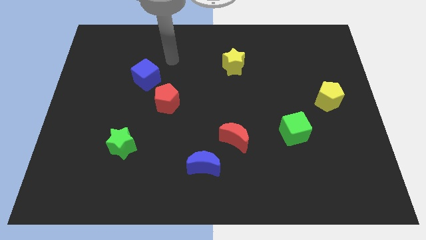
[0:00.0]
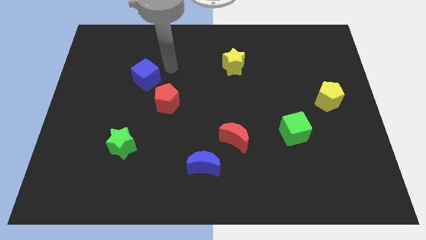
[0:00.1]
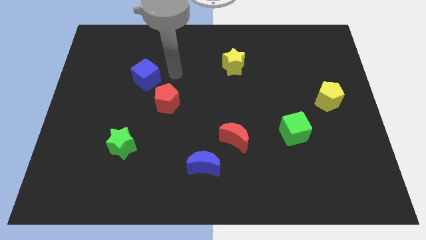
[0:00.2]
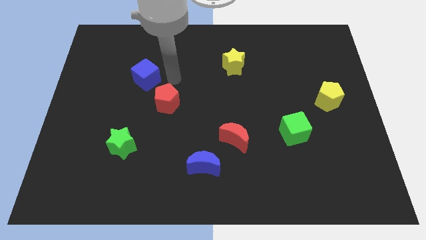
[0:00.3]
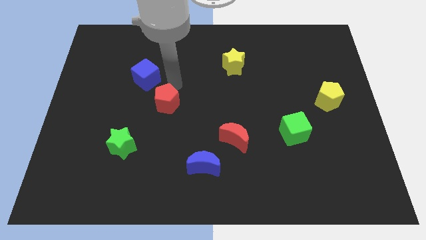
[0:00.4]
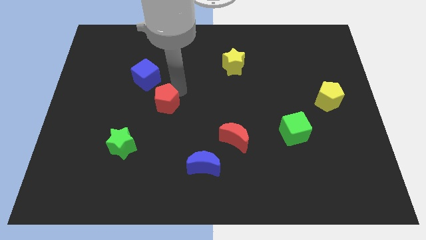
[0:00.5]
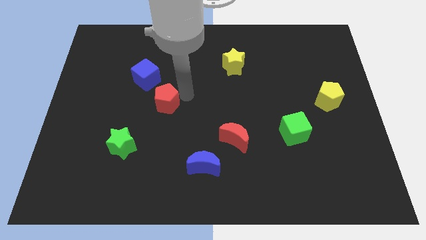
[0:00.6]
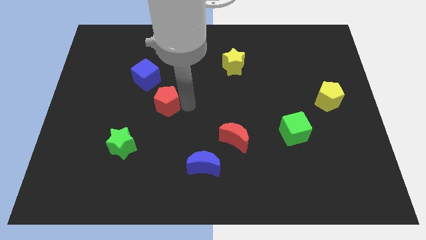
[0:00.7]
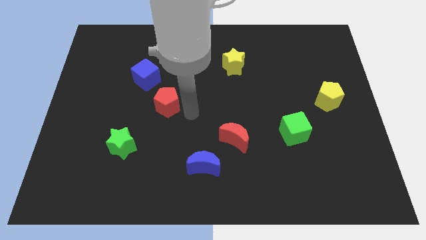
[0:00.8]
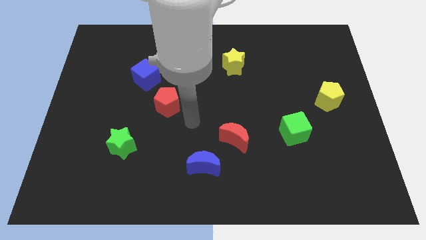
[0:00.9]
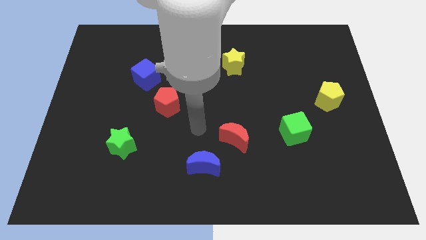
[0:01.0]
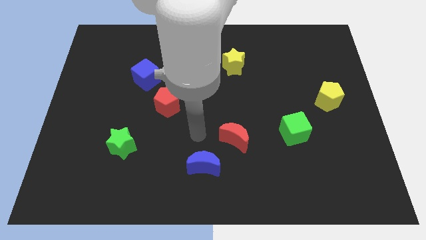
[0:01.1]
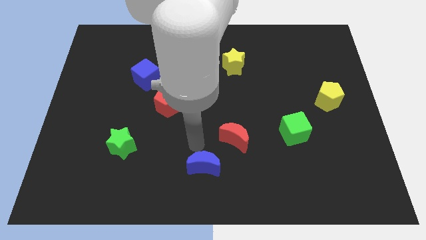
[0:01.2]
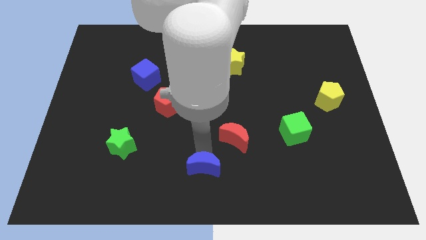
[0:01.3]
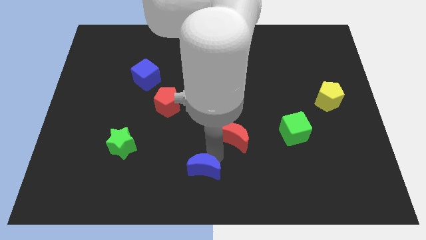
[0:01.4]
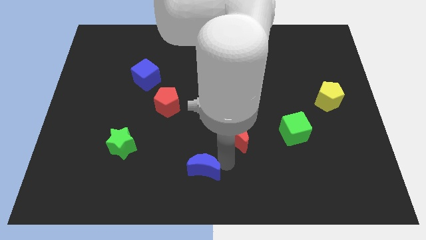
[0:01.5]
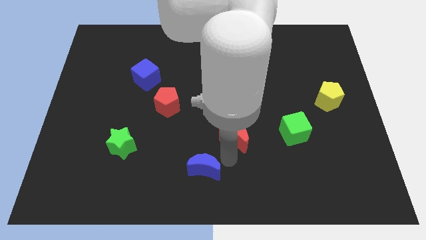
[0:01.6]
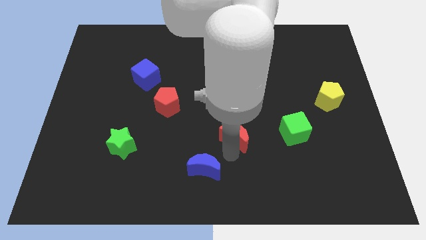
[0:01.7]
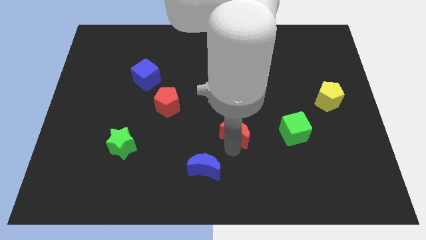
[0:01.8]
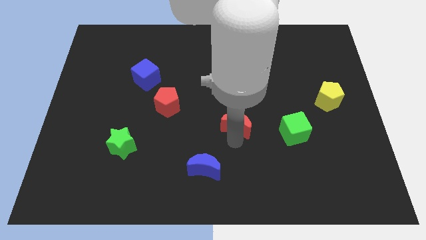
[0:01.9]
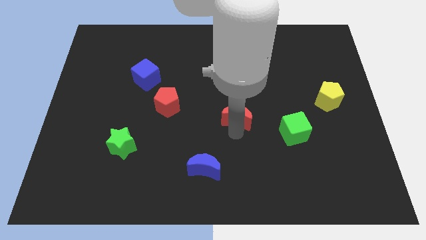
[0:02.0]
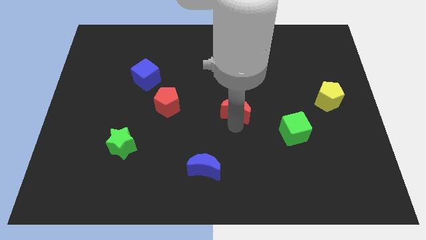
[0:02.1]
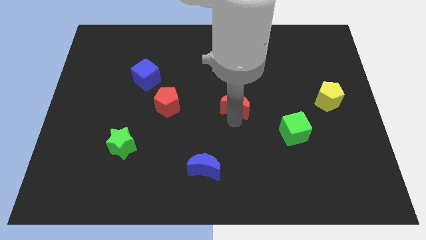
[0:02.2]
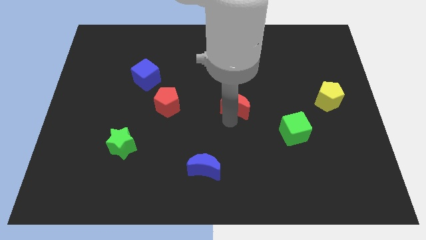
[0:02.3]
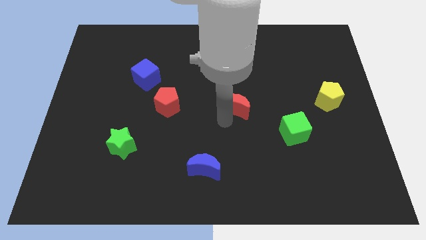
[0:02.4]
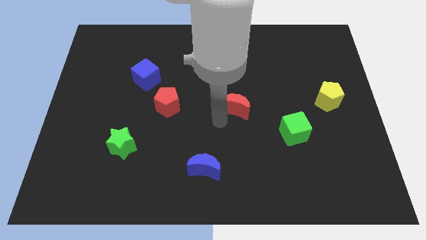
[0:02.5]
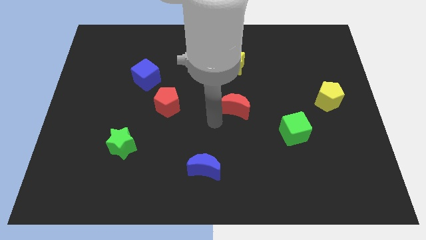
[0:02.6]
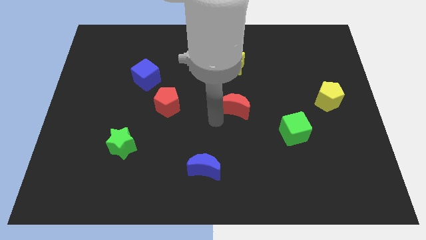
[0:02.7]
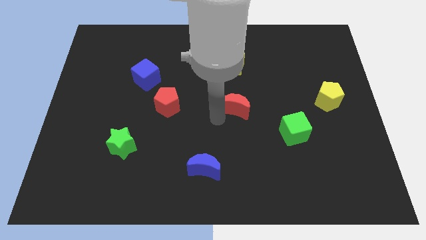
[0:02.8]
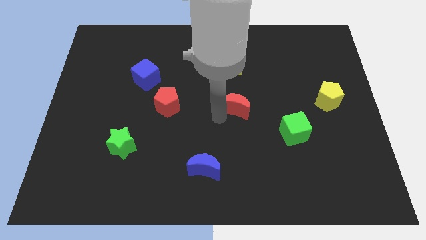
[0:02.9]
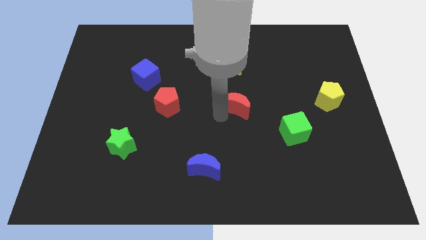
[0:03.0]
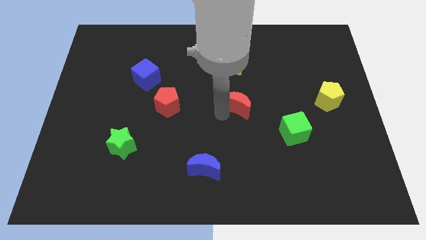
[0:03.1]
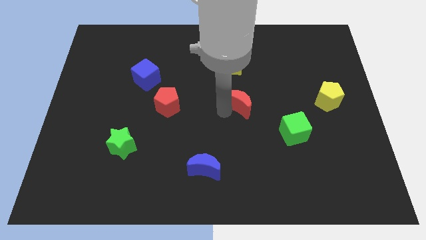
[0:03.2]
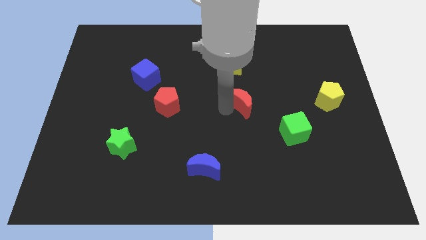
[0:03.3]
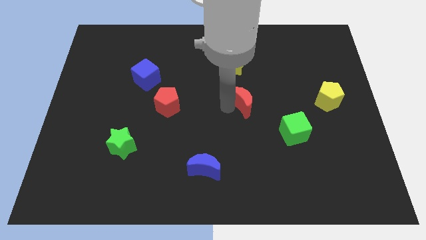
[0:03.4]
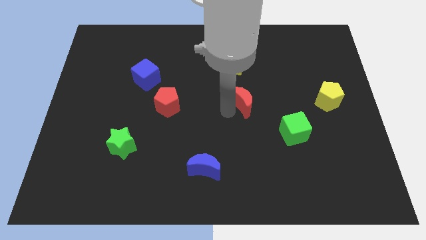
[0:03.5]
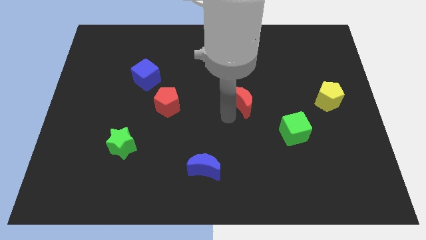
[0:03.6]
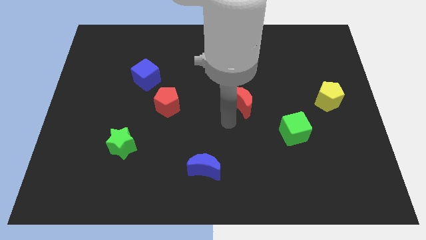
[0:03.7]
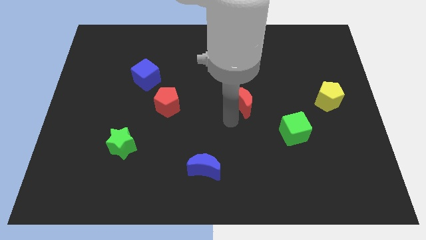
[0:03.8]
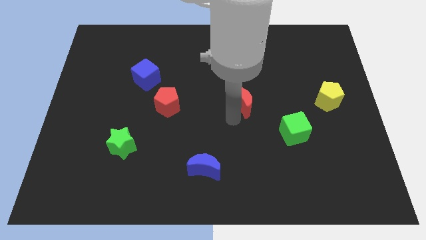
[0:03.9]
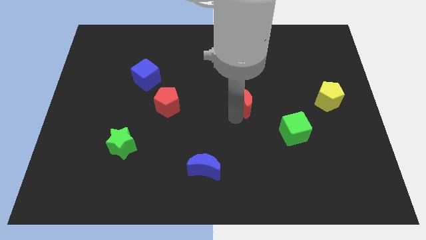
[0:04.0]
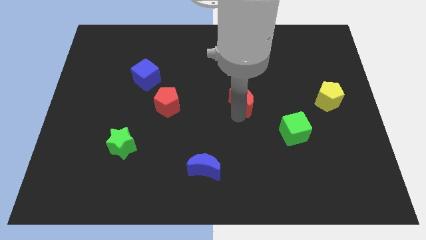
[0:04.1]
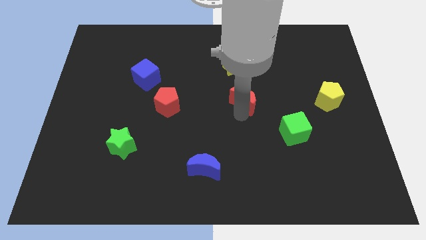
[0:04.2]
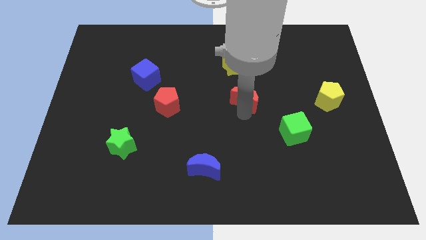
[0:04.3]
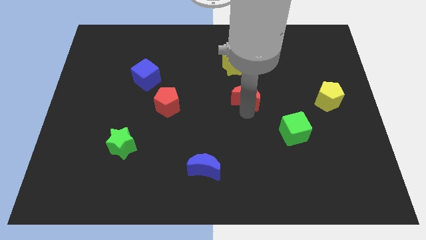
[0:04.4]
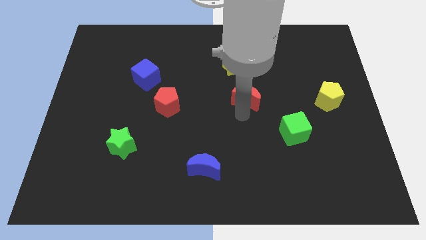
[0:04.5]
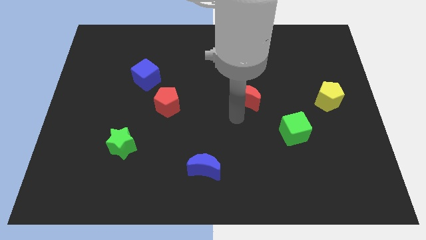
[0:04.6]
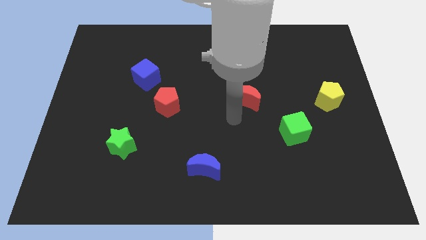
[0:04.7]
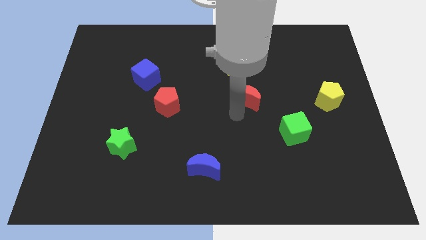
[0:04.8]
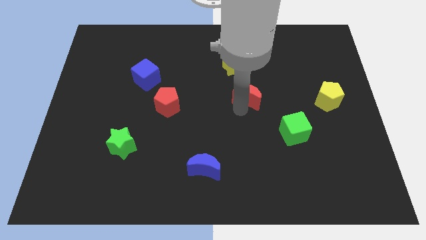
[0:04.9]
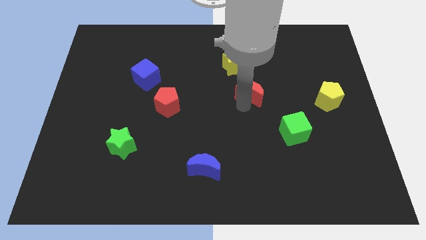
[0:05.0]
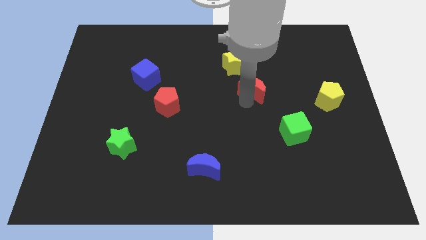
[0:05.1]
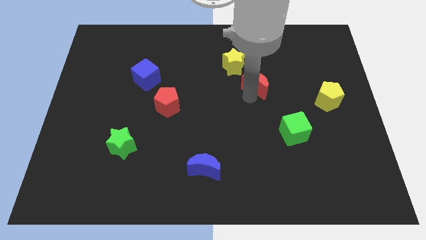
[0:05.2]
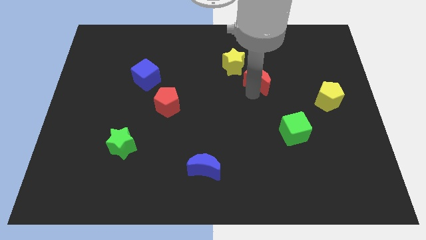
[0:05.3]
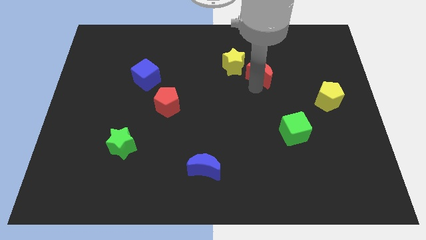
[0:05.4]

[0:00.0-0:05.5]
put the red moon right of the yellow star

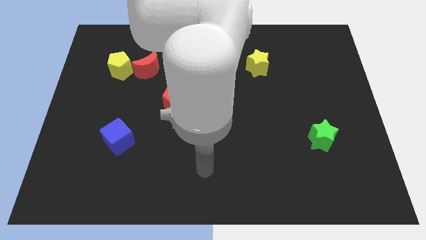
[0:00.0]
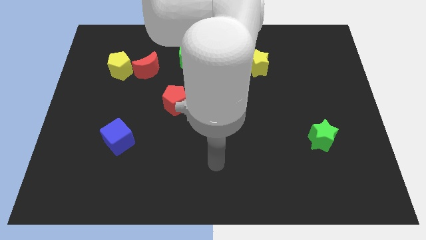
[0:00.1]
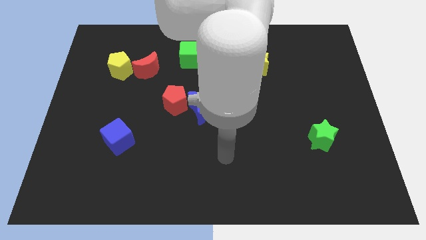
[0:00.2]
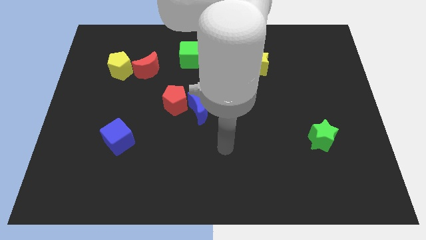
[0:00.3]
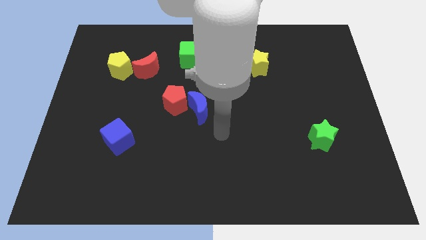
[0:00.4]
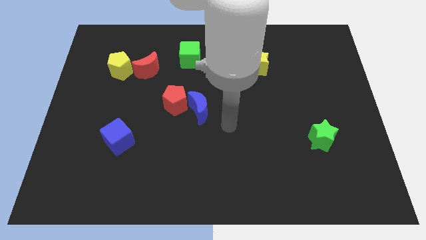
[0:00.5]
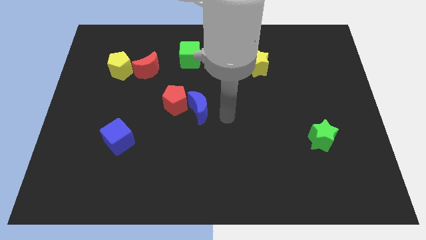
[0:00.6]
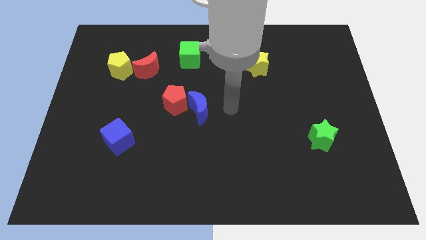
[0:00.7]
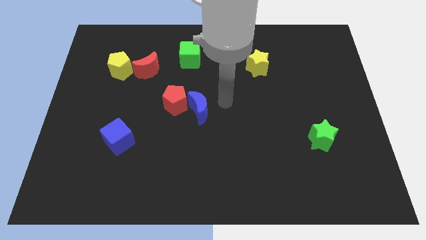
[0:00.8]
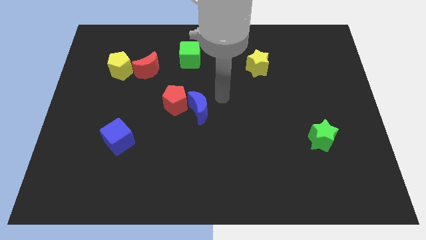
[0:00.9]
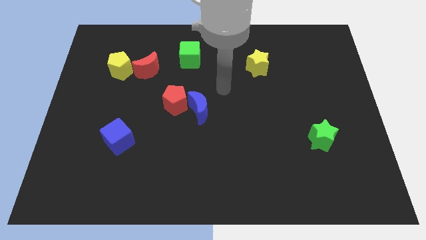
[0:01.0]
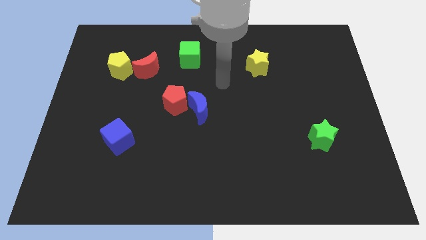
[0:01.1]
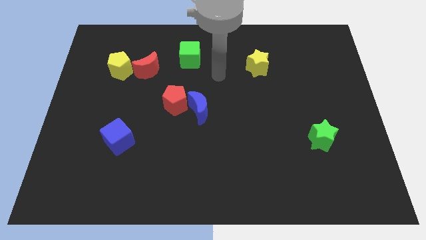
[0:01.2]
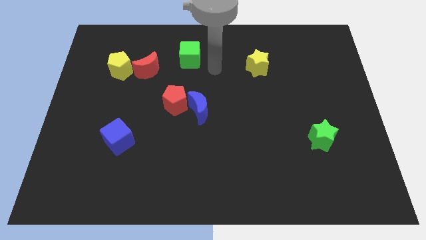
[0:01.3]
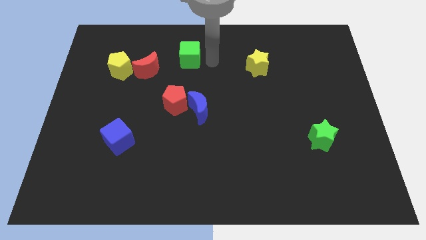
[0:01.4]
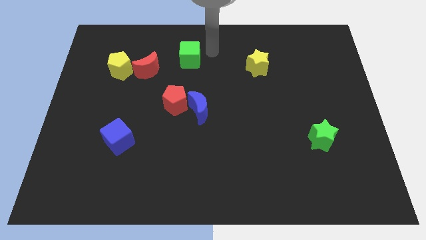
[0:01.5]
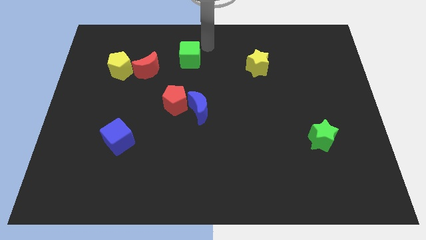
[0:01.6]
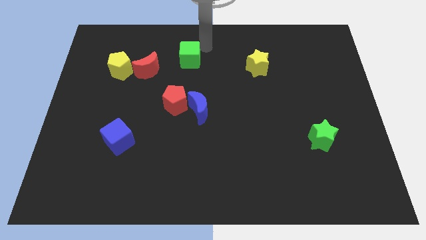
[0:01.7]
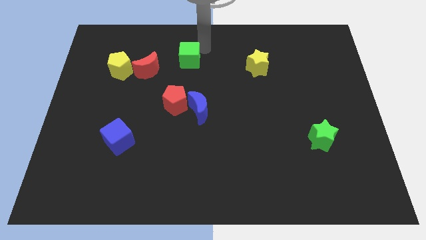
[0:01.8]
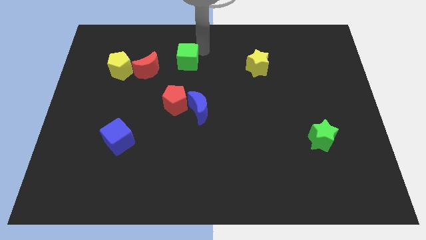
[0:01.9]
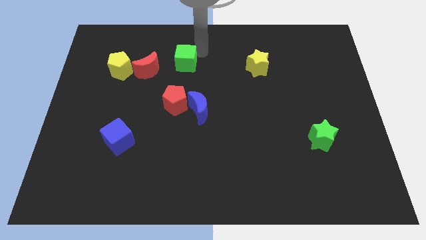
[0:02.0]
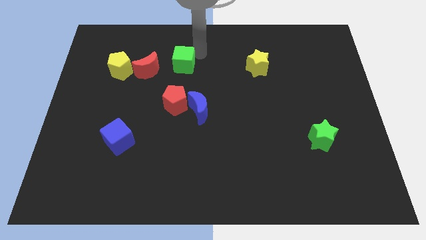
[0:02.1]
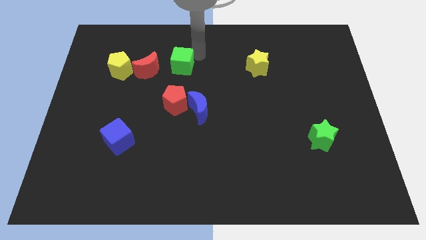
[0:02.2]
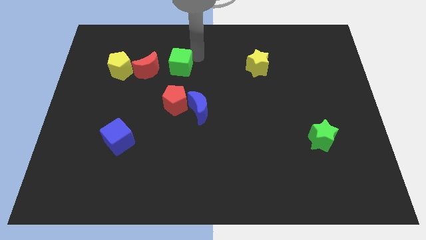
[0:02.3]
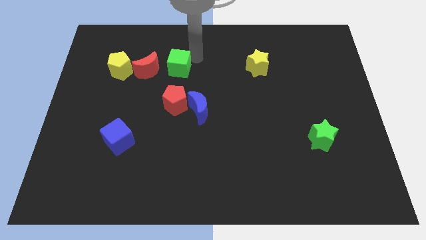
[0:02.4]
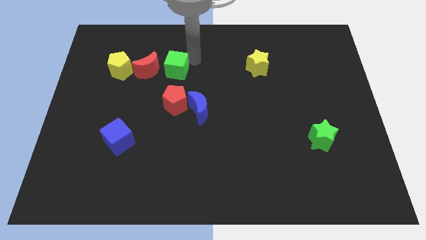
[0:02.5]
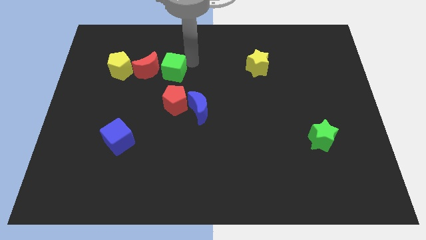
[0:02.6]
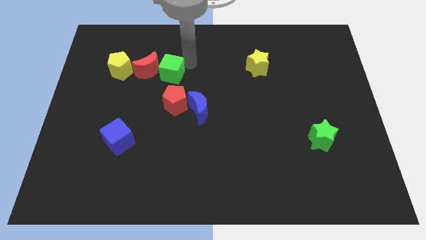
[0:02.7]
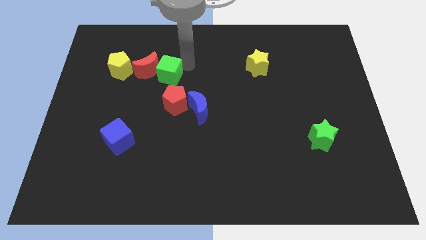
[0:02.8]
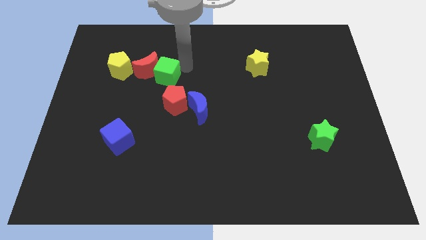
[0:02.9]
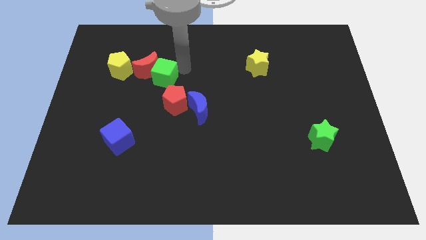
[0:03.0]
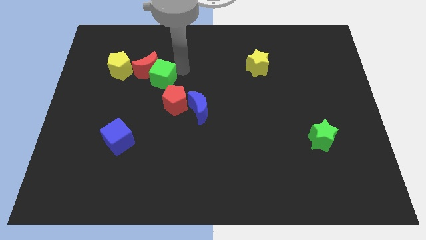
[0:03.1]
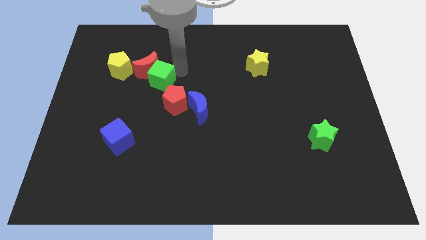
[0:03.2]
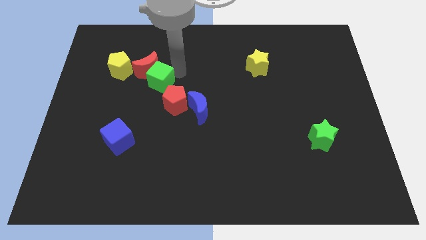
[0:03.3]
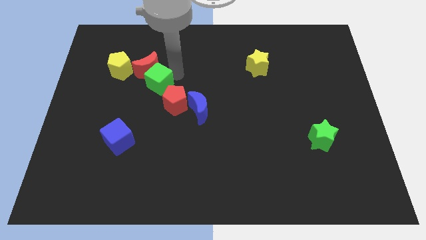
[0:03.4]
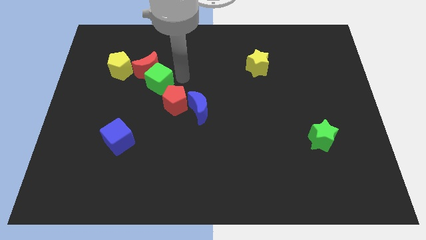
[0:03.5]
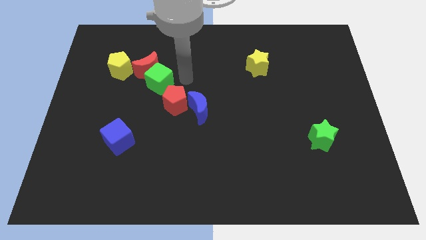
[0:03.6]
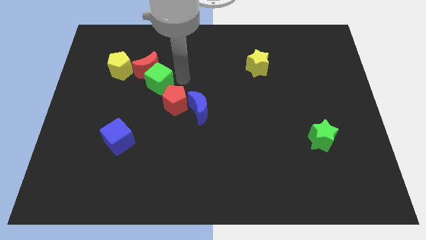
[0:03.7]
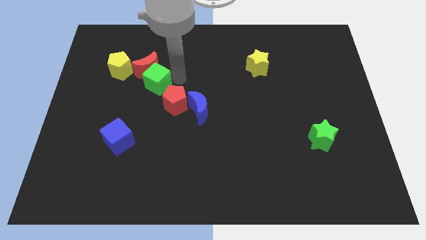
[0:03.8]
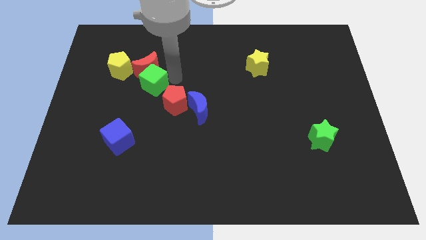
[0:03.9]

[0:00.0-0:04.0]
move the green cube to the bottom left of the red moon
